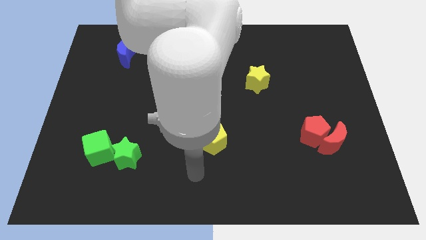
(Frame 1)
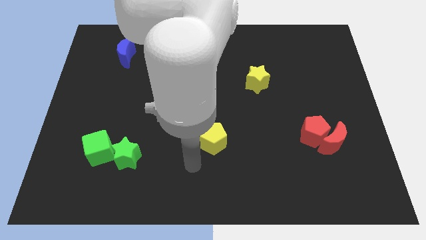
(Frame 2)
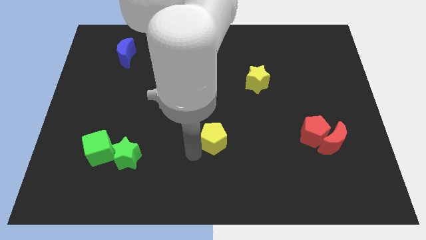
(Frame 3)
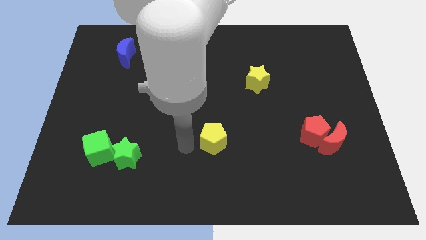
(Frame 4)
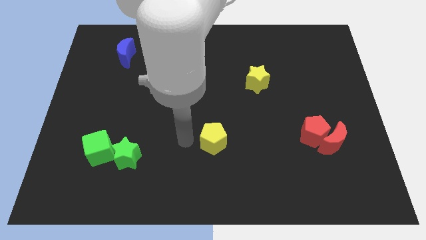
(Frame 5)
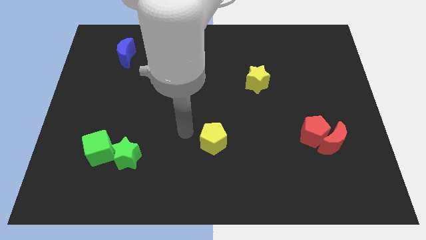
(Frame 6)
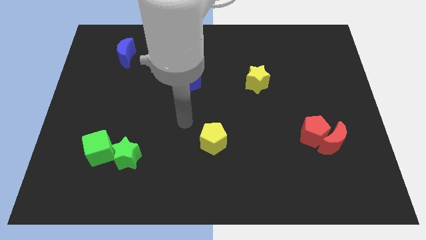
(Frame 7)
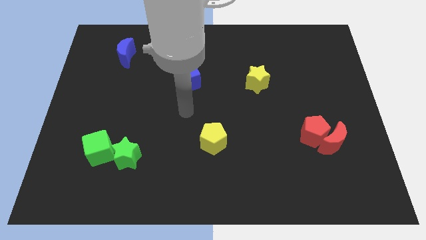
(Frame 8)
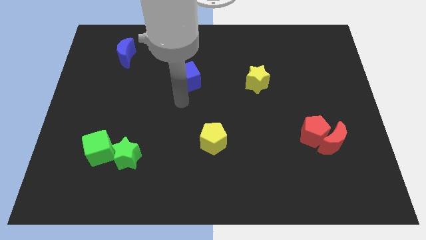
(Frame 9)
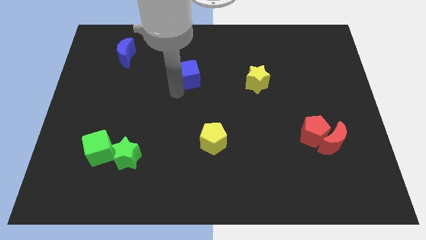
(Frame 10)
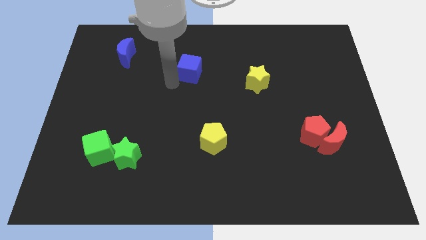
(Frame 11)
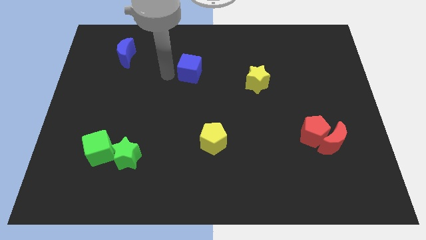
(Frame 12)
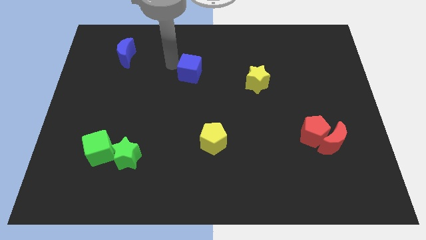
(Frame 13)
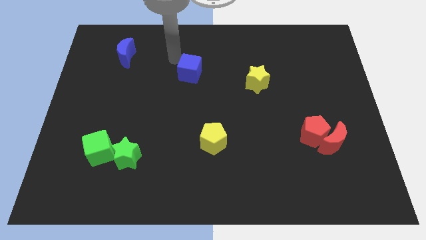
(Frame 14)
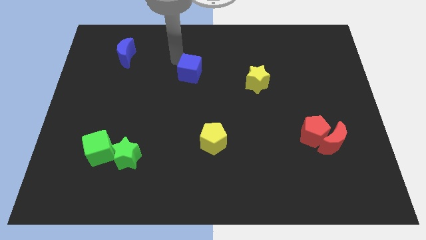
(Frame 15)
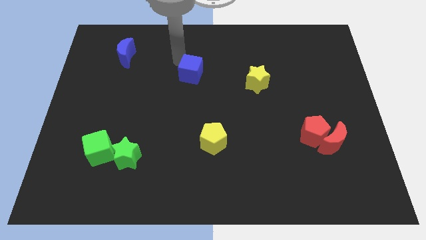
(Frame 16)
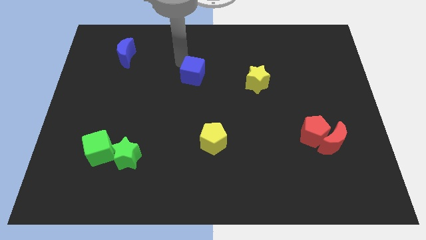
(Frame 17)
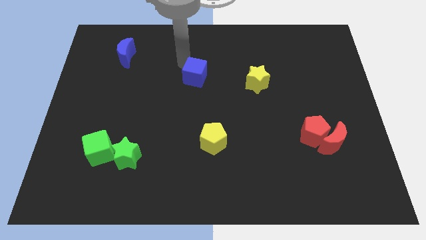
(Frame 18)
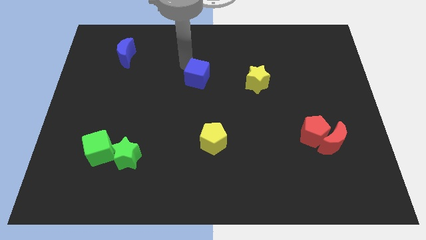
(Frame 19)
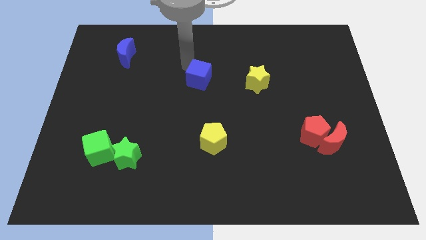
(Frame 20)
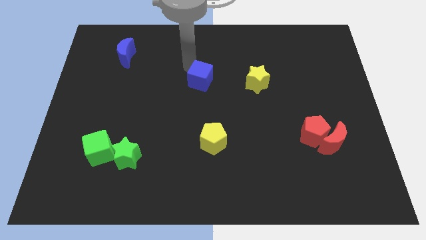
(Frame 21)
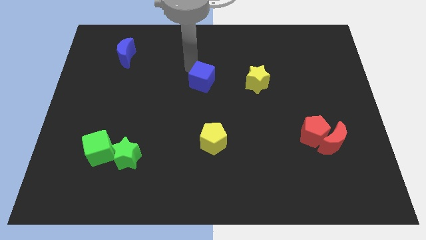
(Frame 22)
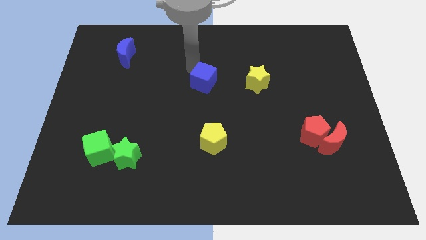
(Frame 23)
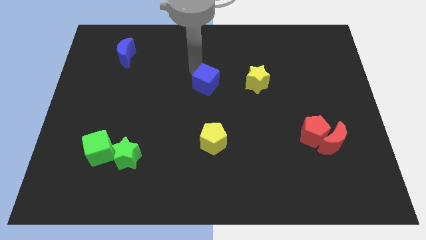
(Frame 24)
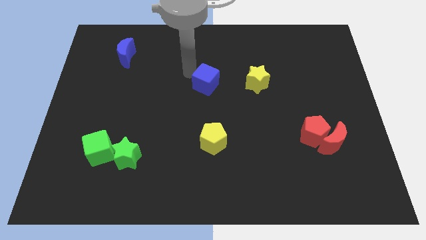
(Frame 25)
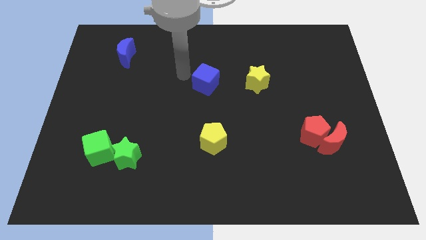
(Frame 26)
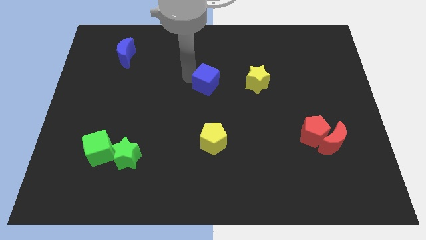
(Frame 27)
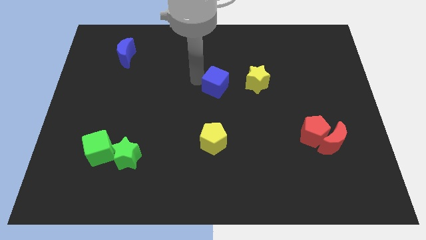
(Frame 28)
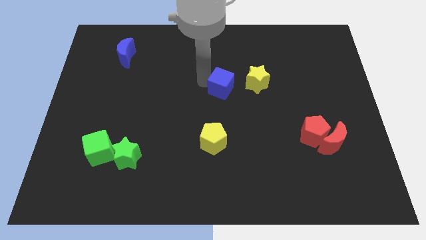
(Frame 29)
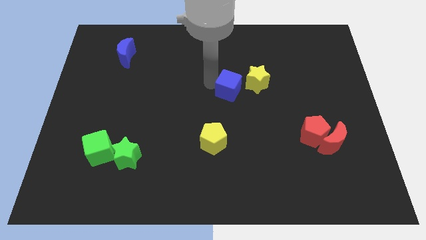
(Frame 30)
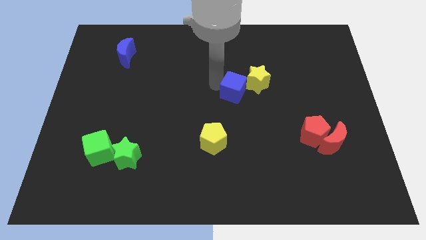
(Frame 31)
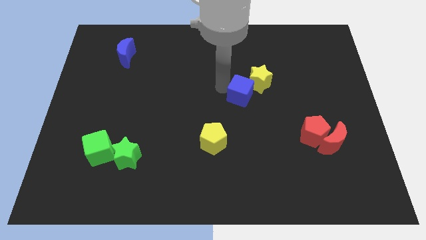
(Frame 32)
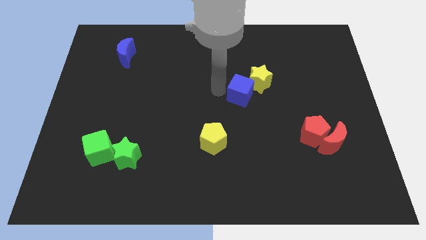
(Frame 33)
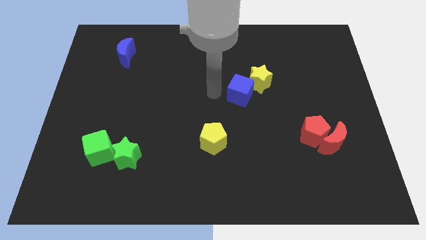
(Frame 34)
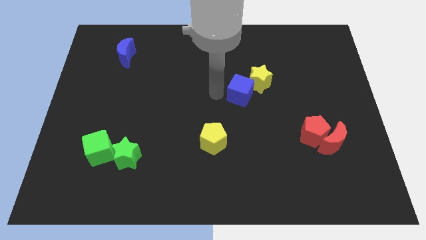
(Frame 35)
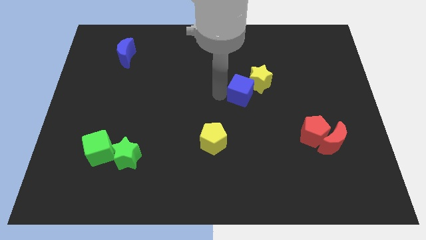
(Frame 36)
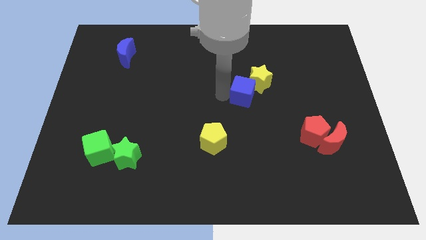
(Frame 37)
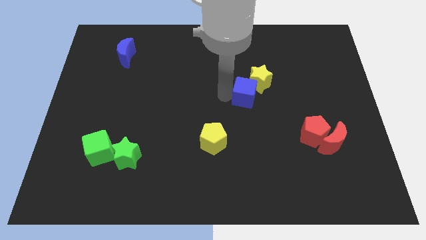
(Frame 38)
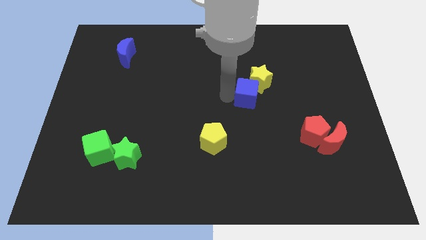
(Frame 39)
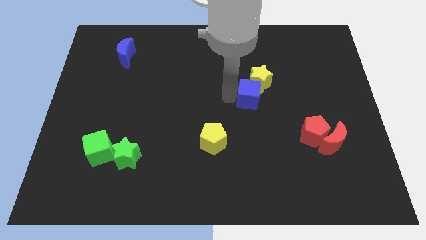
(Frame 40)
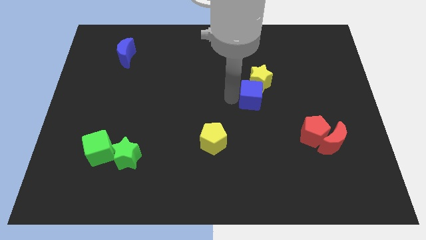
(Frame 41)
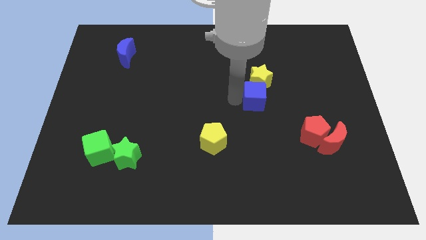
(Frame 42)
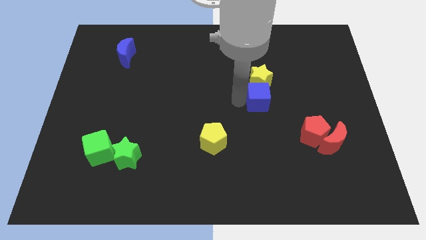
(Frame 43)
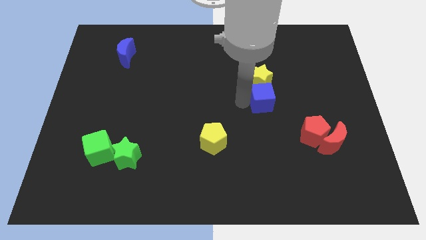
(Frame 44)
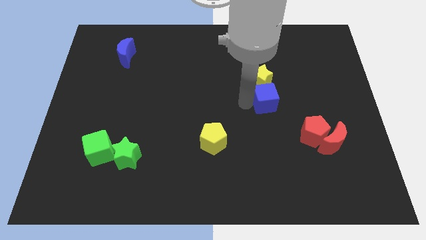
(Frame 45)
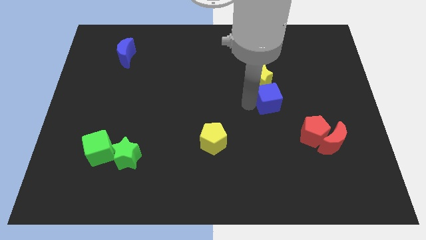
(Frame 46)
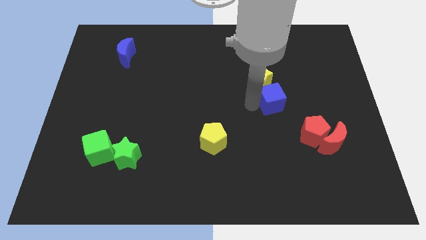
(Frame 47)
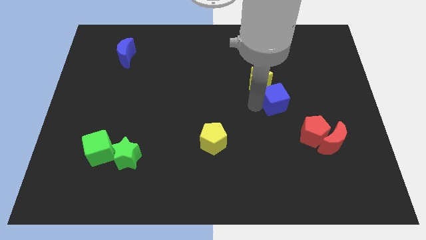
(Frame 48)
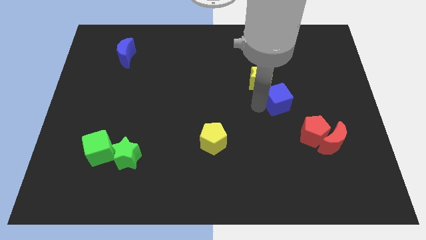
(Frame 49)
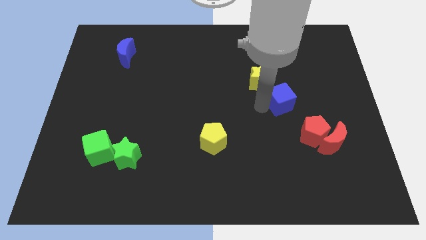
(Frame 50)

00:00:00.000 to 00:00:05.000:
push the blue cube to the right

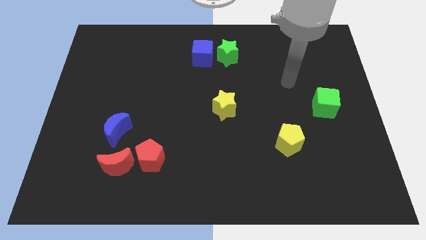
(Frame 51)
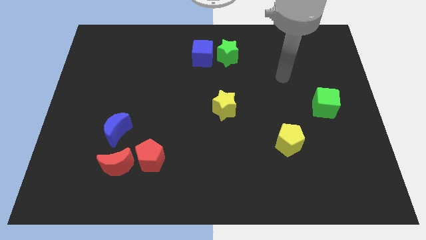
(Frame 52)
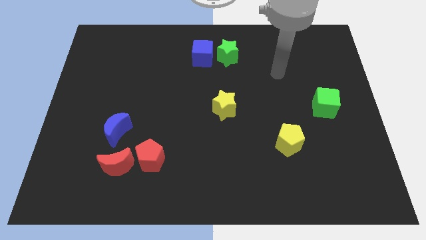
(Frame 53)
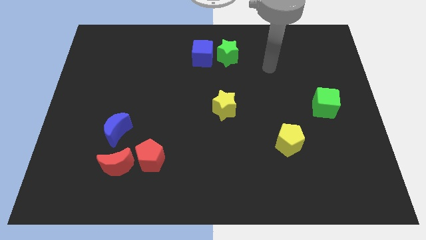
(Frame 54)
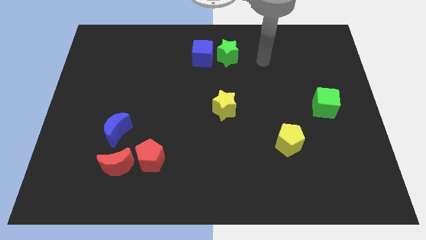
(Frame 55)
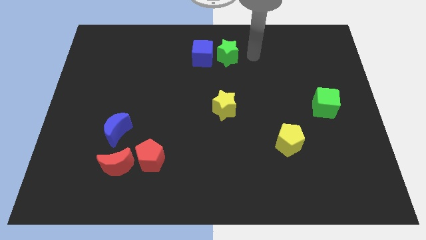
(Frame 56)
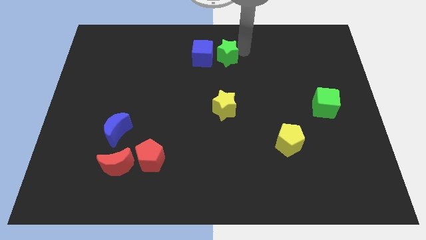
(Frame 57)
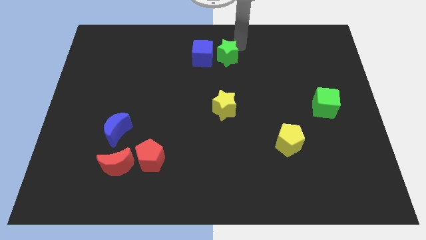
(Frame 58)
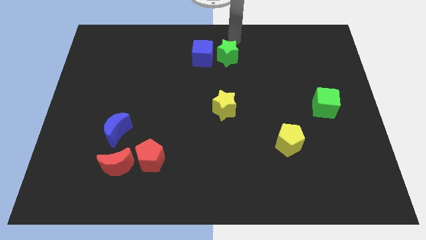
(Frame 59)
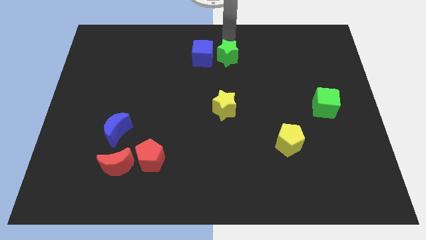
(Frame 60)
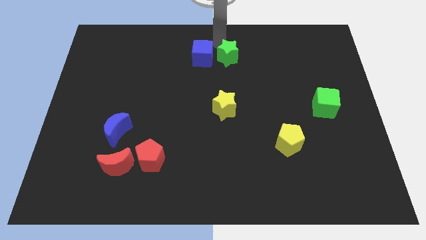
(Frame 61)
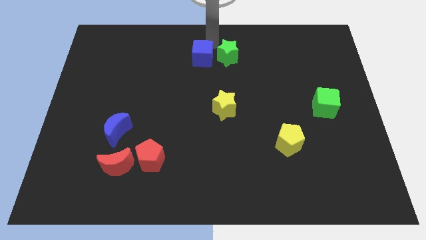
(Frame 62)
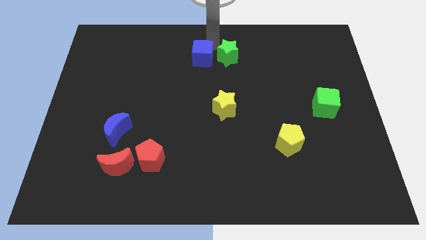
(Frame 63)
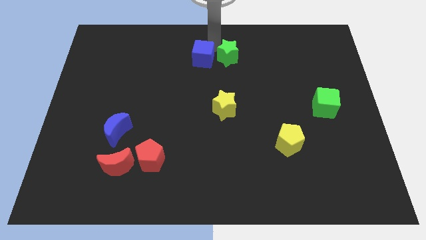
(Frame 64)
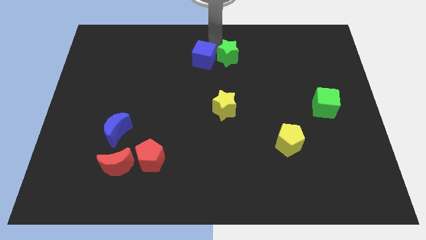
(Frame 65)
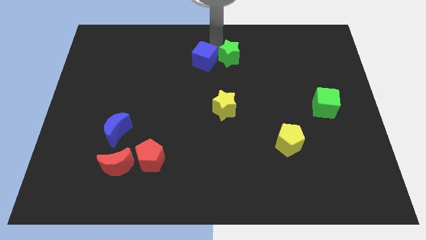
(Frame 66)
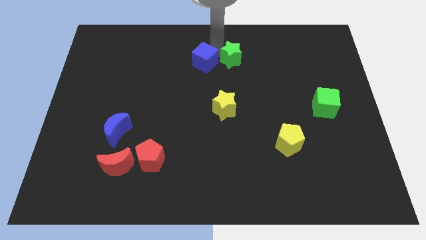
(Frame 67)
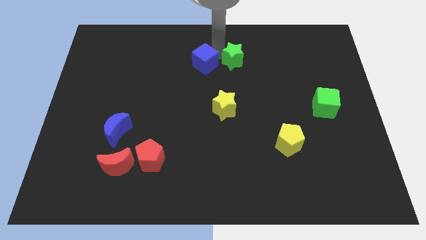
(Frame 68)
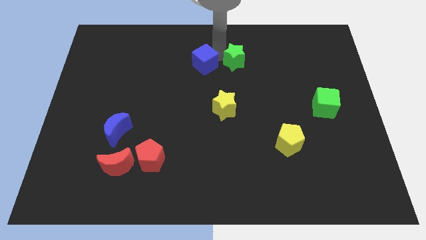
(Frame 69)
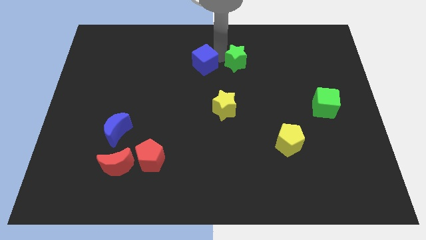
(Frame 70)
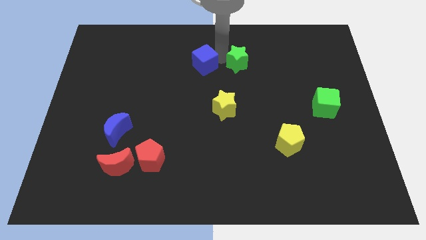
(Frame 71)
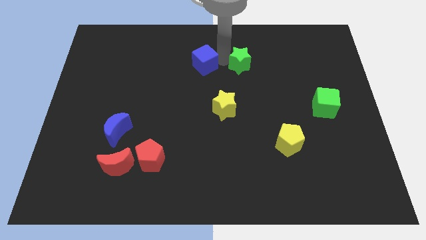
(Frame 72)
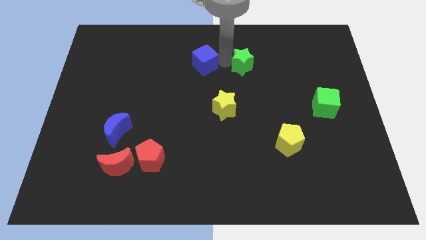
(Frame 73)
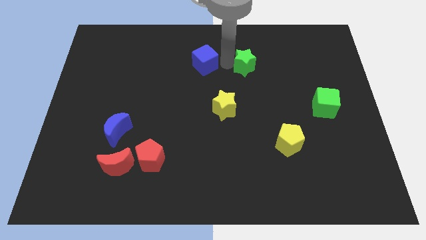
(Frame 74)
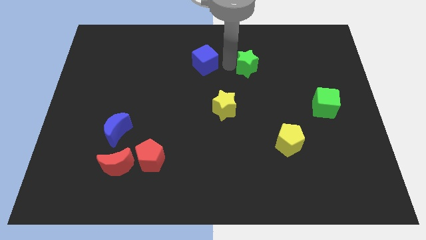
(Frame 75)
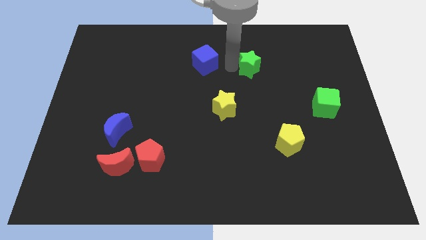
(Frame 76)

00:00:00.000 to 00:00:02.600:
slightly move the green star diagonally down and right

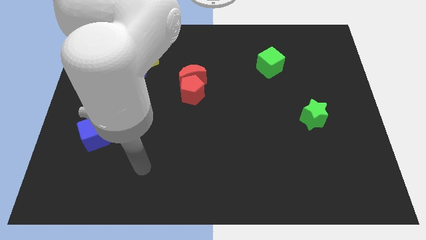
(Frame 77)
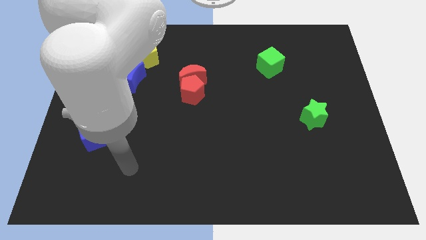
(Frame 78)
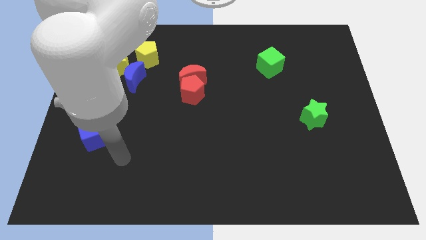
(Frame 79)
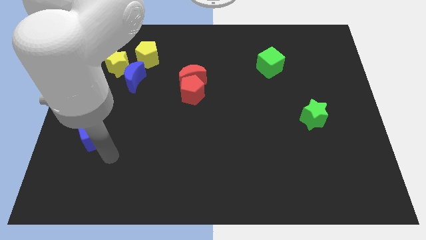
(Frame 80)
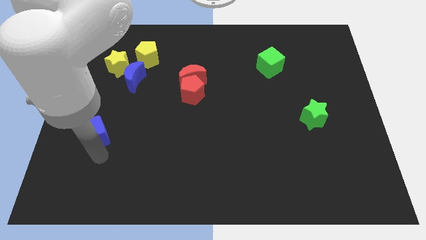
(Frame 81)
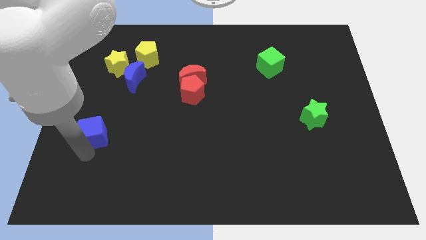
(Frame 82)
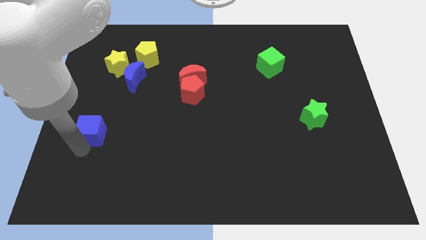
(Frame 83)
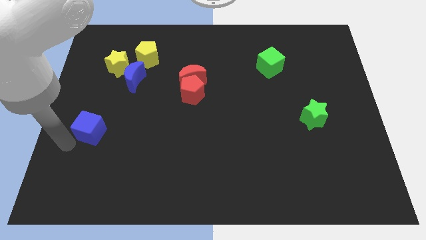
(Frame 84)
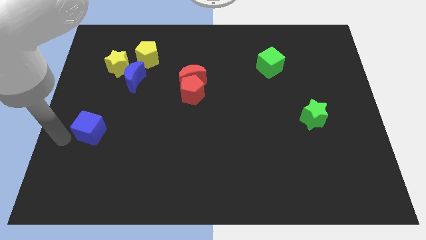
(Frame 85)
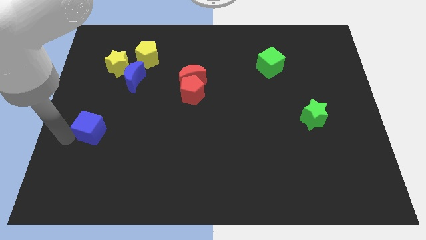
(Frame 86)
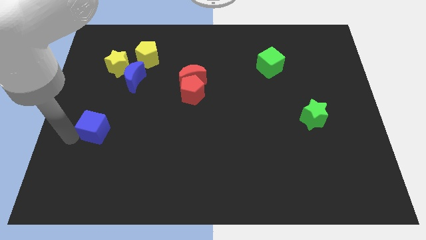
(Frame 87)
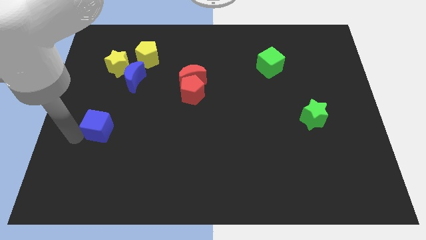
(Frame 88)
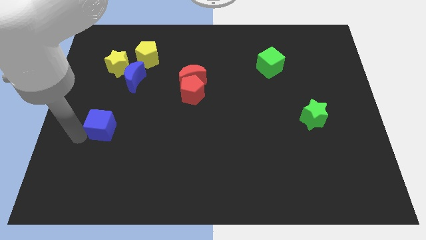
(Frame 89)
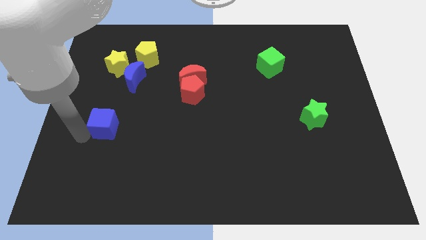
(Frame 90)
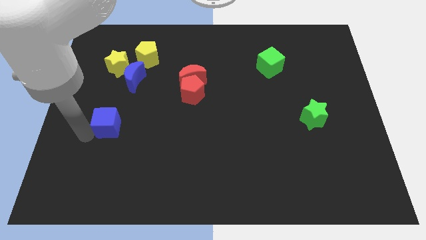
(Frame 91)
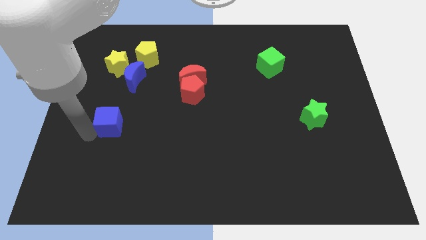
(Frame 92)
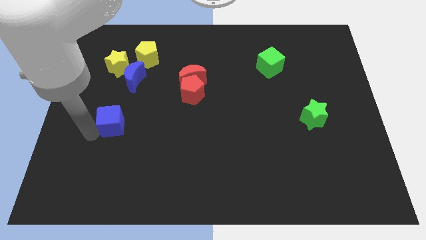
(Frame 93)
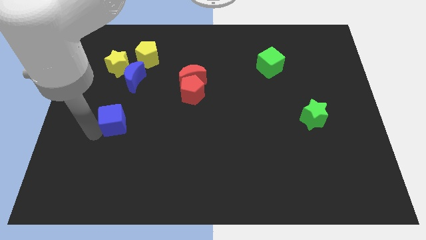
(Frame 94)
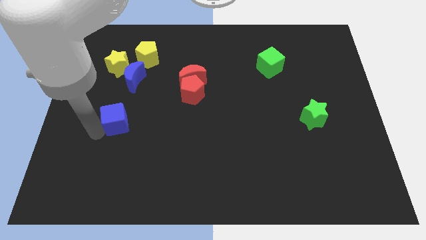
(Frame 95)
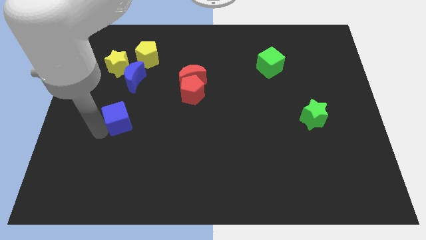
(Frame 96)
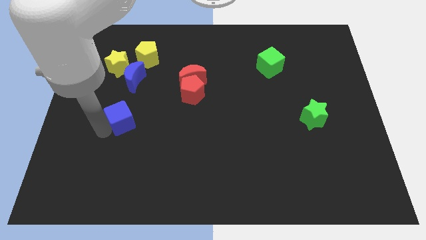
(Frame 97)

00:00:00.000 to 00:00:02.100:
move the blue cube up and to the right a bit
